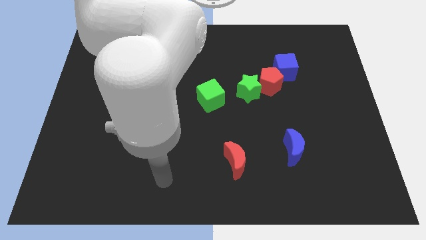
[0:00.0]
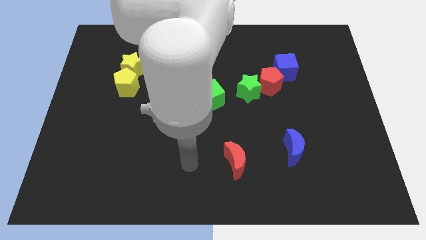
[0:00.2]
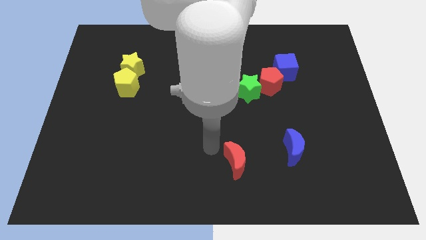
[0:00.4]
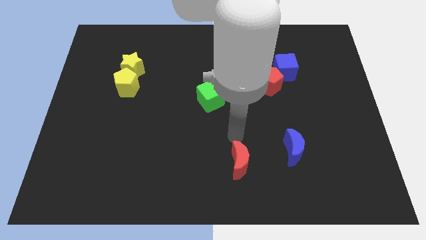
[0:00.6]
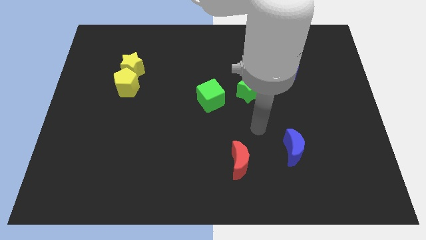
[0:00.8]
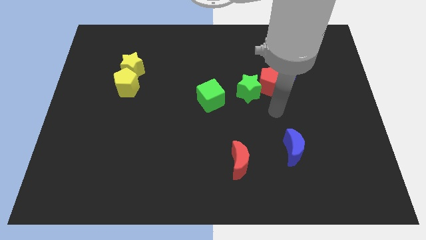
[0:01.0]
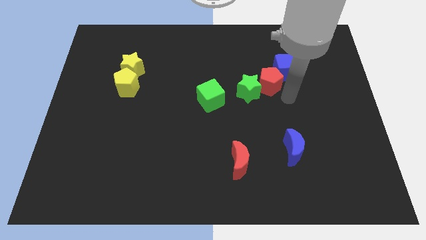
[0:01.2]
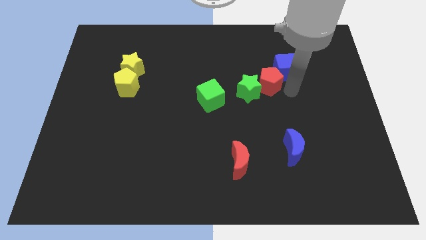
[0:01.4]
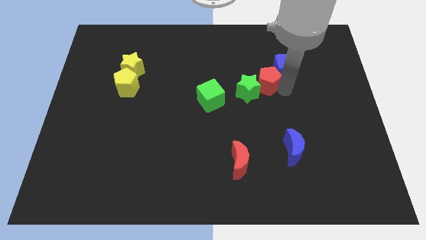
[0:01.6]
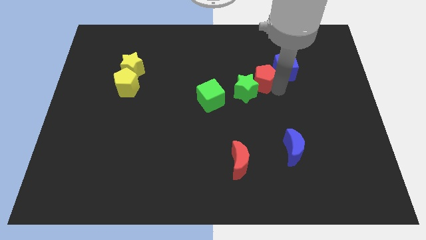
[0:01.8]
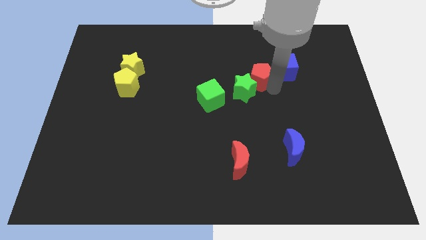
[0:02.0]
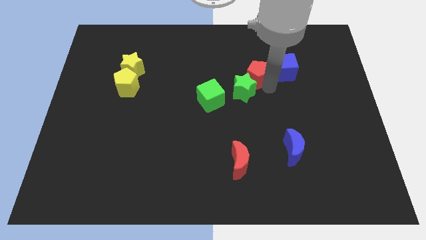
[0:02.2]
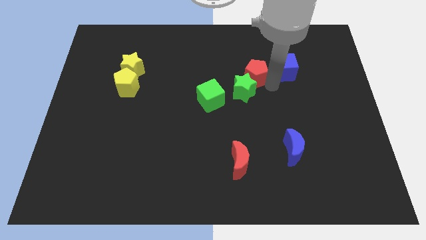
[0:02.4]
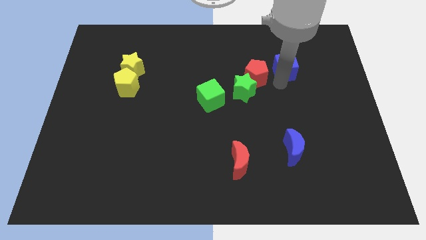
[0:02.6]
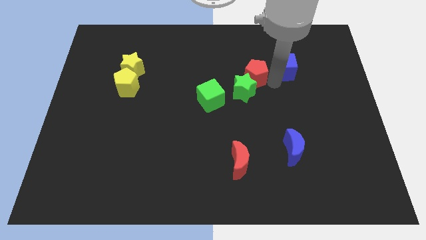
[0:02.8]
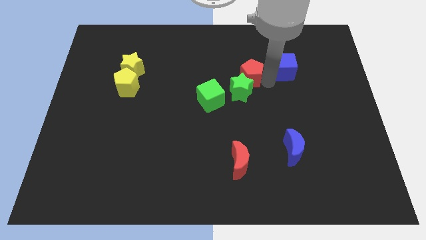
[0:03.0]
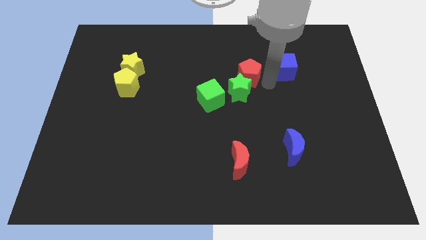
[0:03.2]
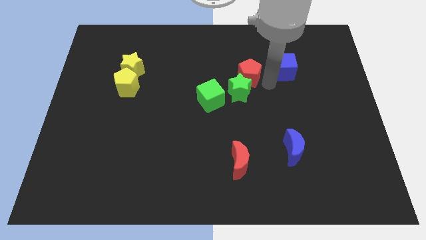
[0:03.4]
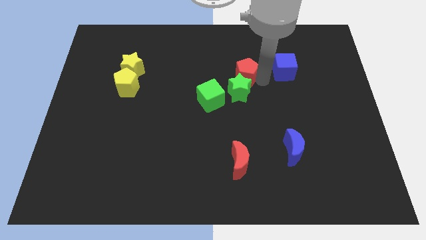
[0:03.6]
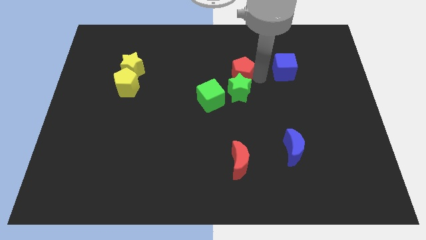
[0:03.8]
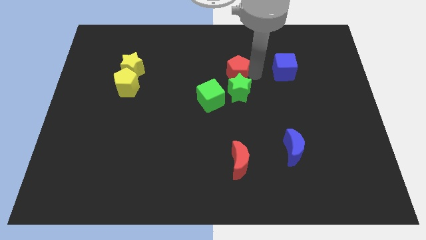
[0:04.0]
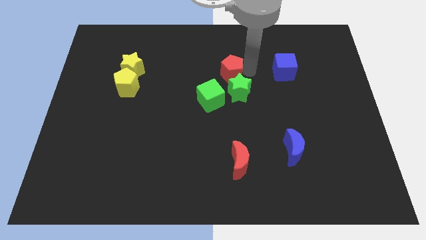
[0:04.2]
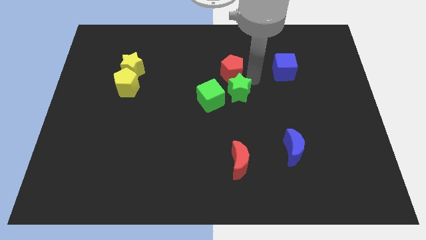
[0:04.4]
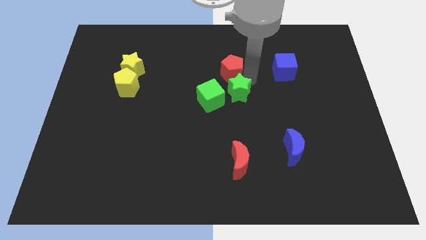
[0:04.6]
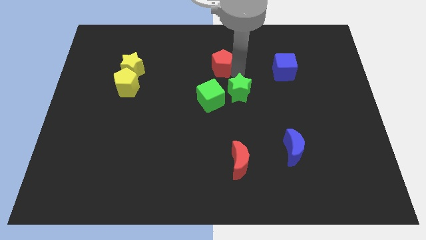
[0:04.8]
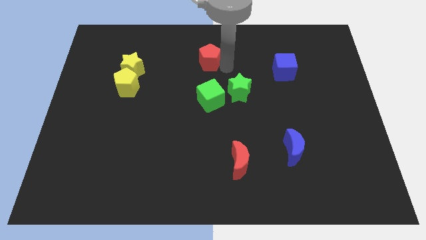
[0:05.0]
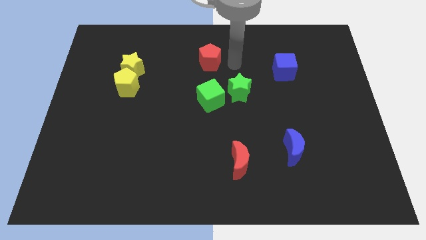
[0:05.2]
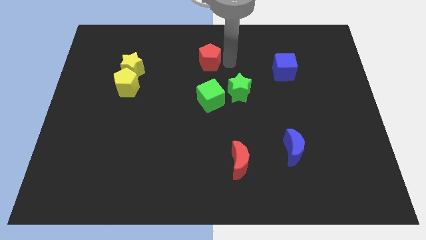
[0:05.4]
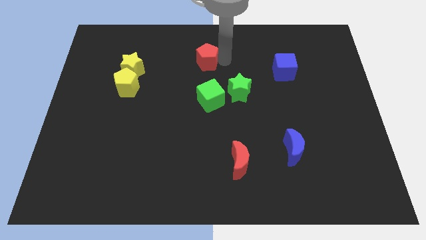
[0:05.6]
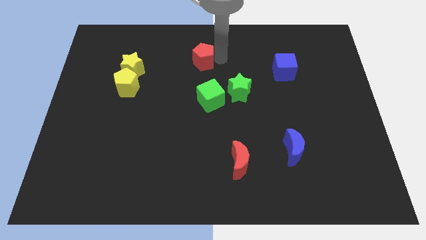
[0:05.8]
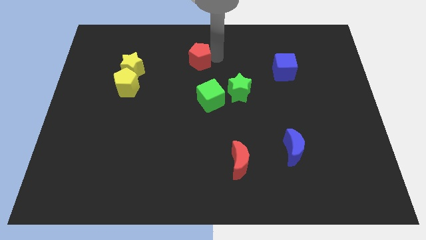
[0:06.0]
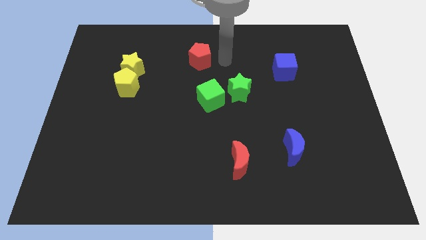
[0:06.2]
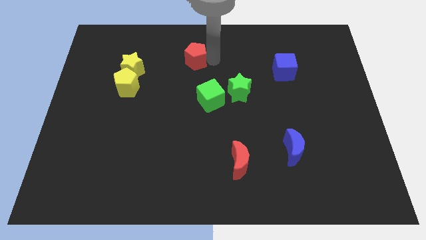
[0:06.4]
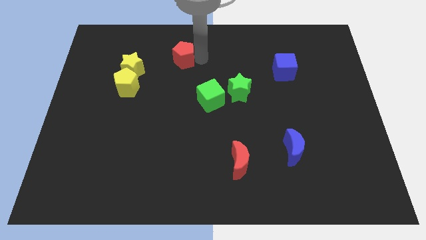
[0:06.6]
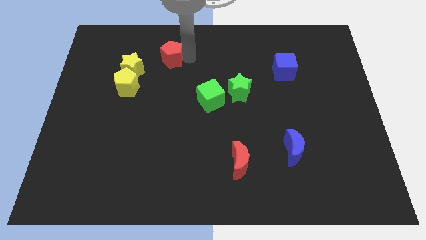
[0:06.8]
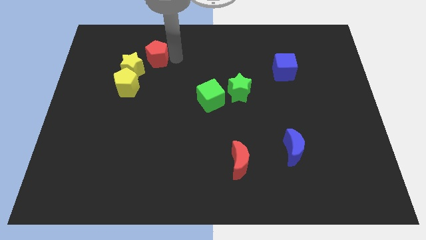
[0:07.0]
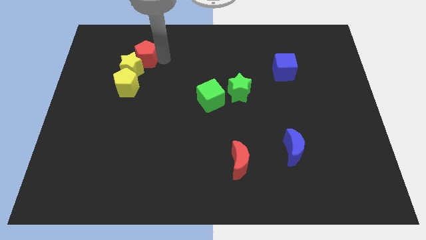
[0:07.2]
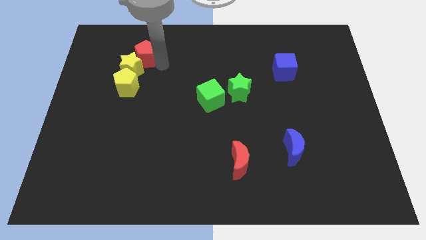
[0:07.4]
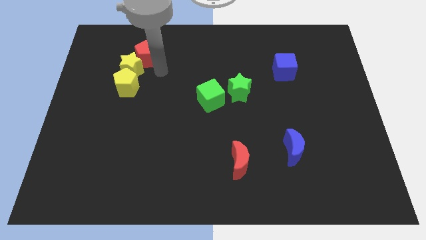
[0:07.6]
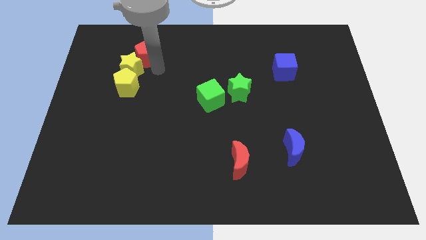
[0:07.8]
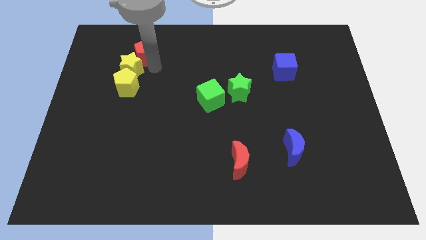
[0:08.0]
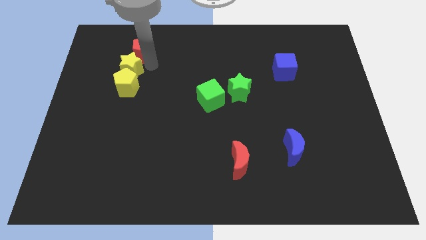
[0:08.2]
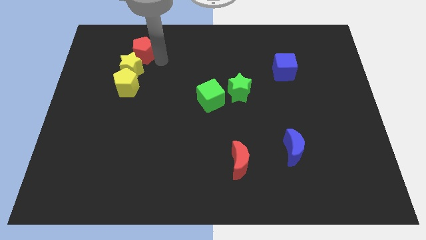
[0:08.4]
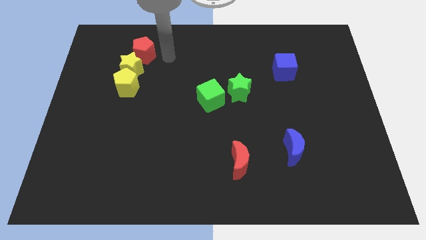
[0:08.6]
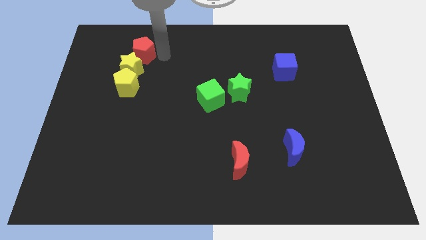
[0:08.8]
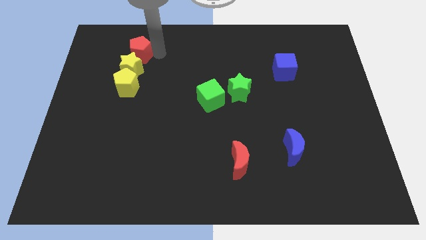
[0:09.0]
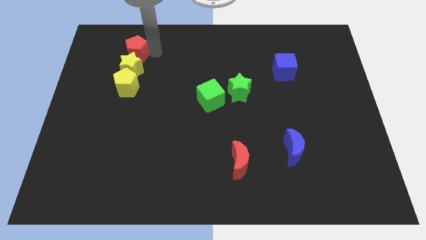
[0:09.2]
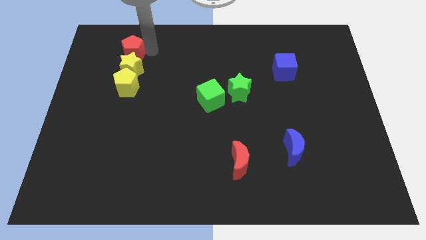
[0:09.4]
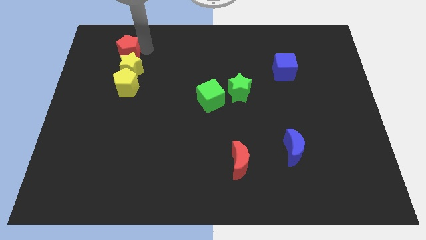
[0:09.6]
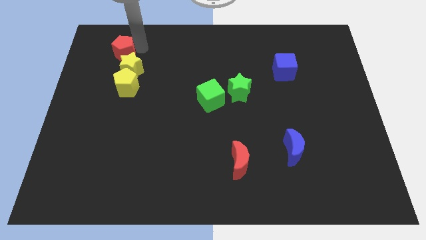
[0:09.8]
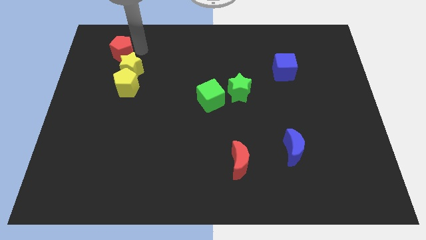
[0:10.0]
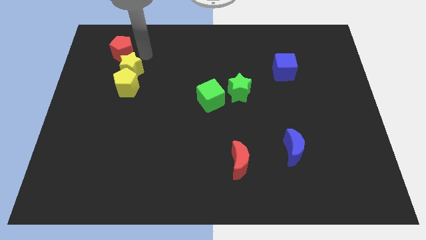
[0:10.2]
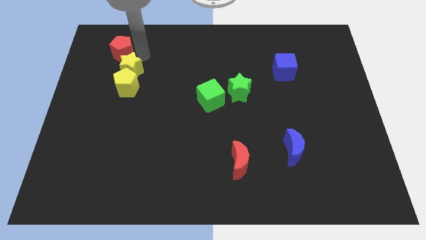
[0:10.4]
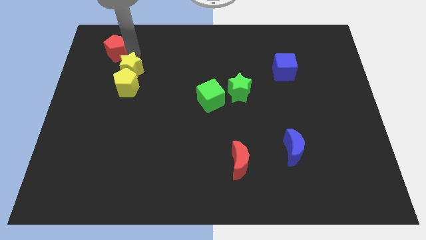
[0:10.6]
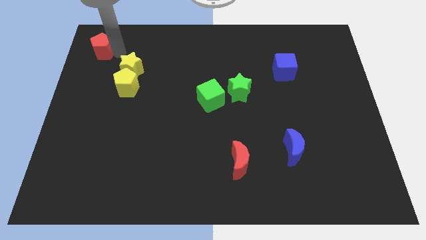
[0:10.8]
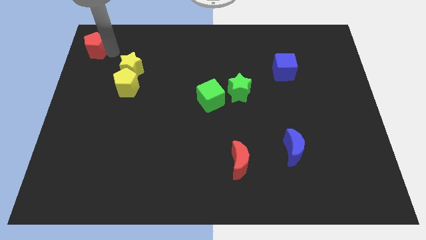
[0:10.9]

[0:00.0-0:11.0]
move the red pentagon to the upper left corner

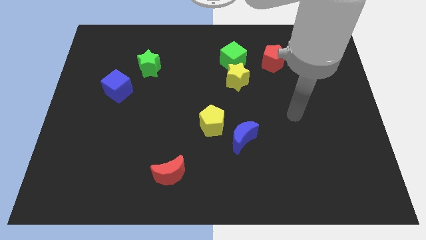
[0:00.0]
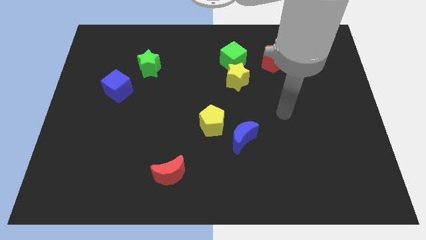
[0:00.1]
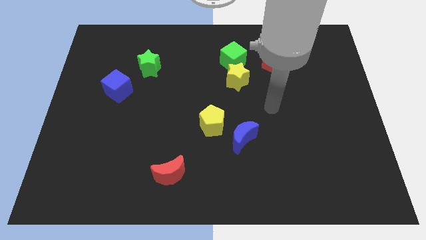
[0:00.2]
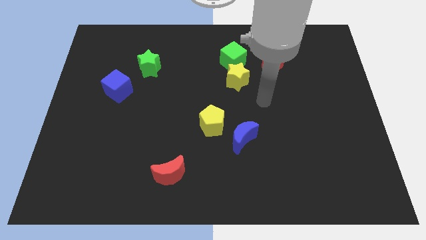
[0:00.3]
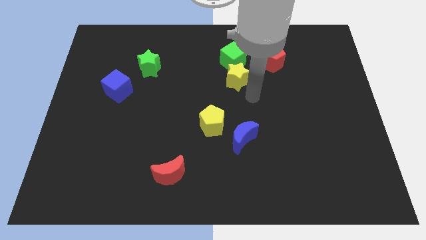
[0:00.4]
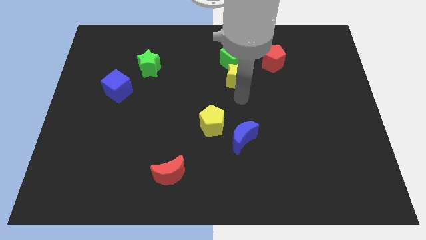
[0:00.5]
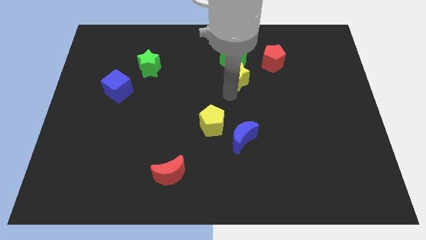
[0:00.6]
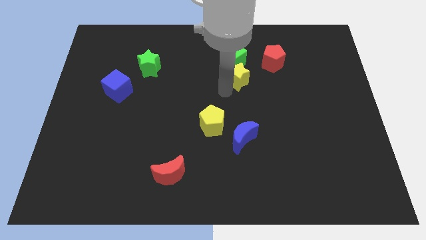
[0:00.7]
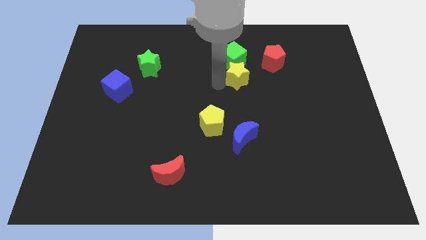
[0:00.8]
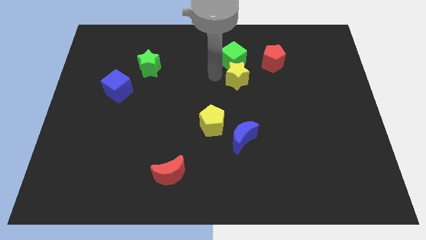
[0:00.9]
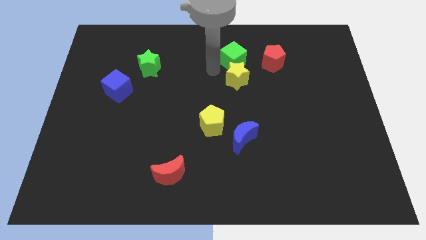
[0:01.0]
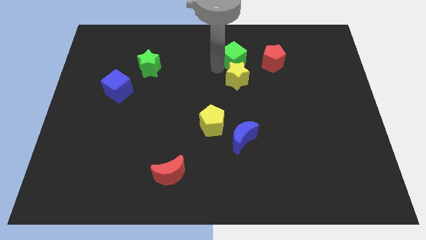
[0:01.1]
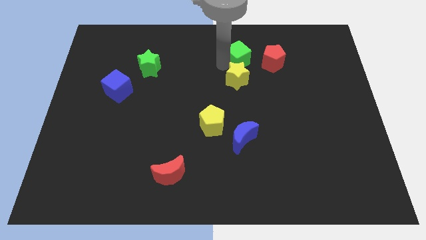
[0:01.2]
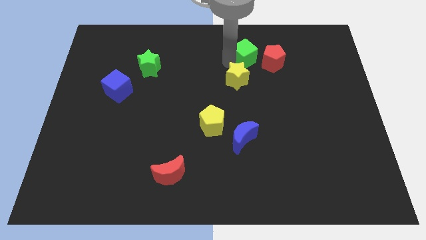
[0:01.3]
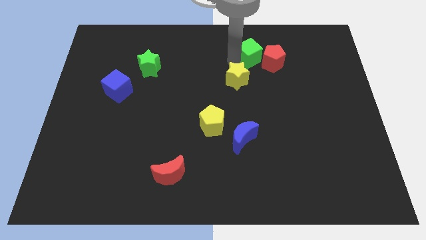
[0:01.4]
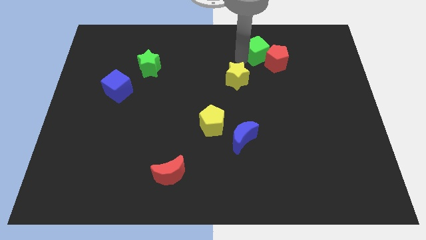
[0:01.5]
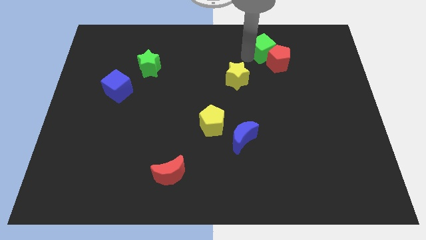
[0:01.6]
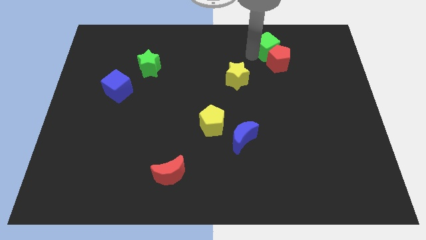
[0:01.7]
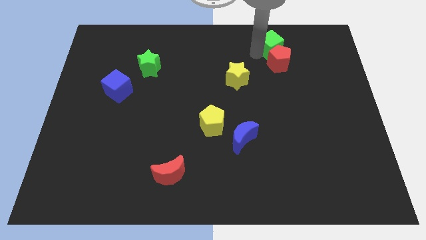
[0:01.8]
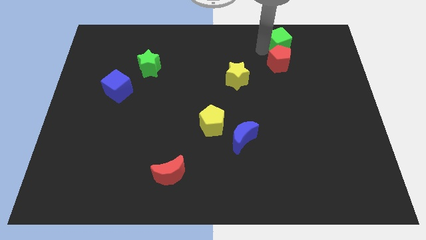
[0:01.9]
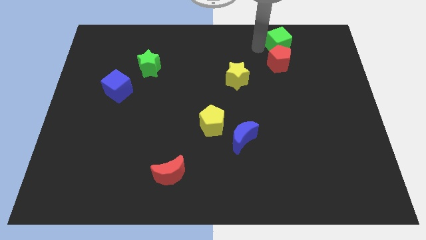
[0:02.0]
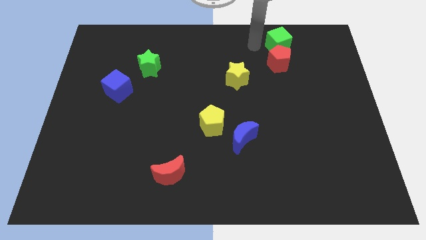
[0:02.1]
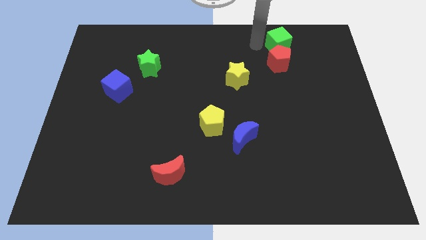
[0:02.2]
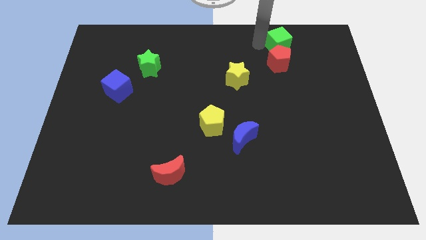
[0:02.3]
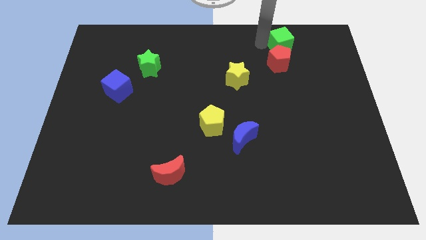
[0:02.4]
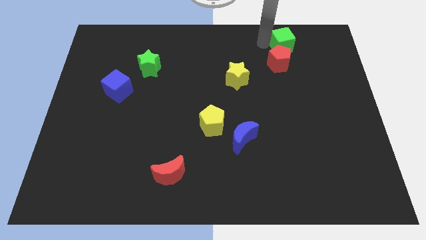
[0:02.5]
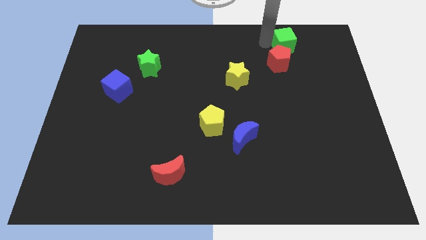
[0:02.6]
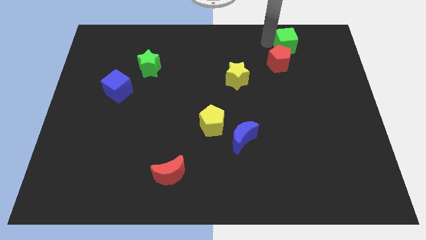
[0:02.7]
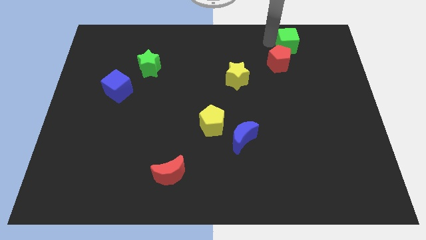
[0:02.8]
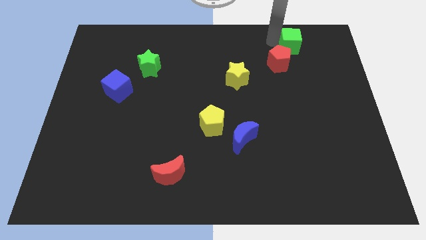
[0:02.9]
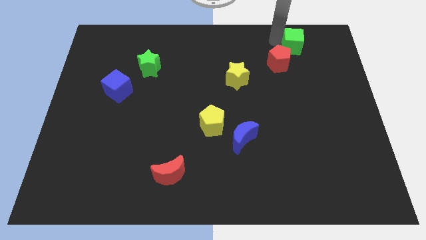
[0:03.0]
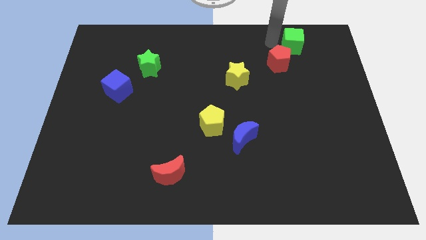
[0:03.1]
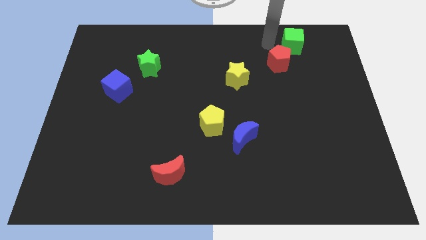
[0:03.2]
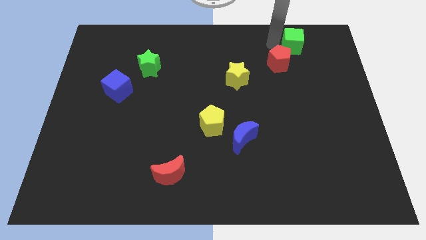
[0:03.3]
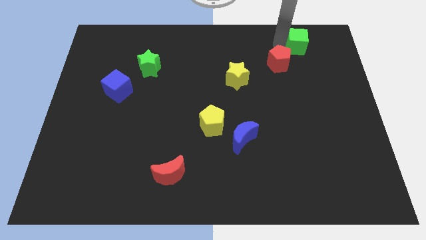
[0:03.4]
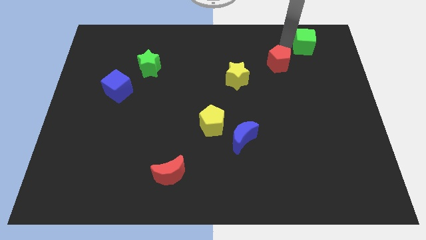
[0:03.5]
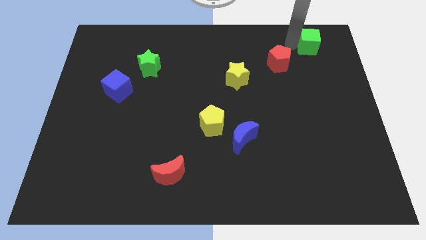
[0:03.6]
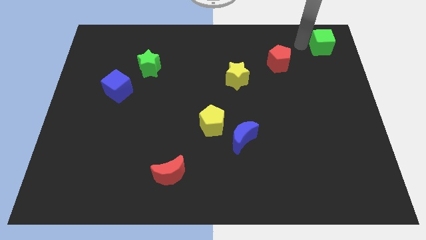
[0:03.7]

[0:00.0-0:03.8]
push the green cube to the top right corner
